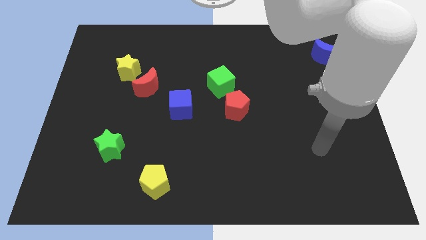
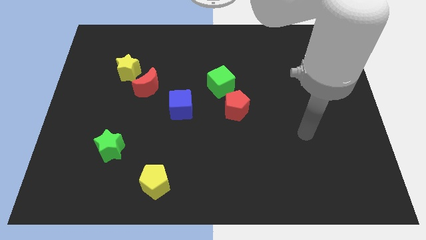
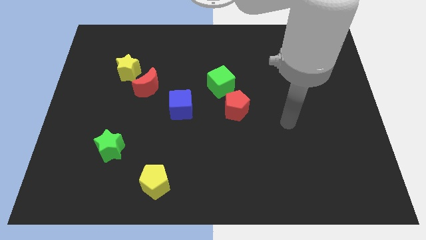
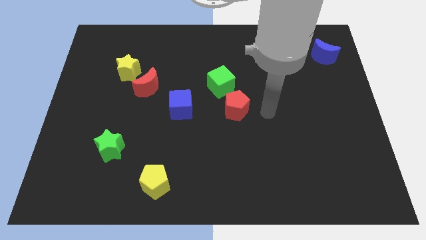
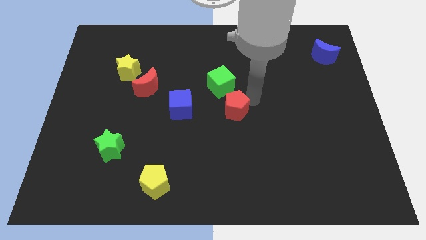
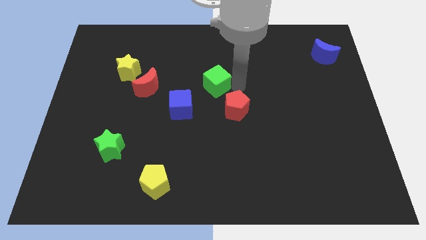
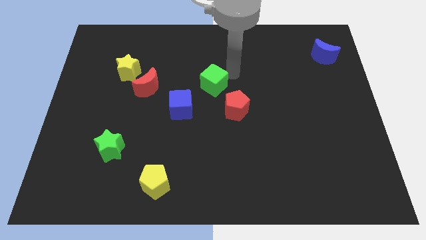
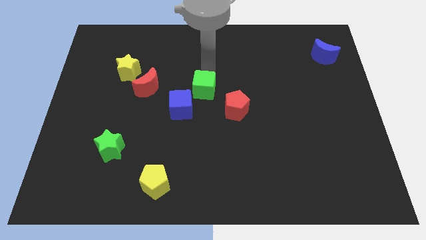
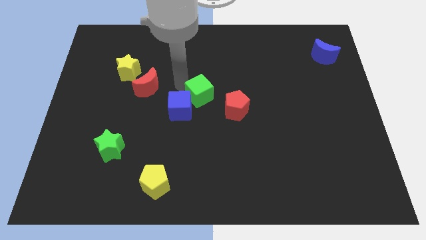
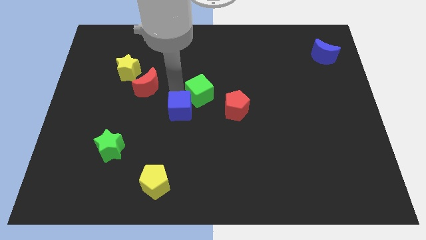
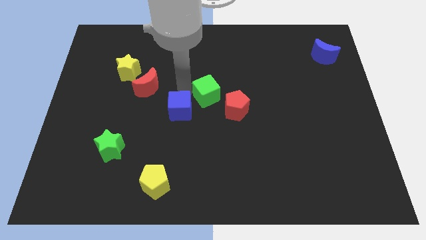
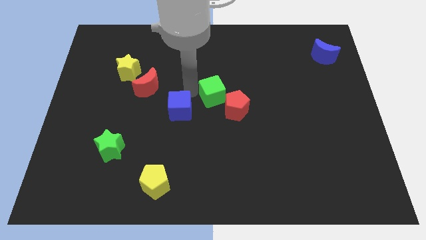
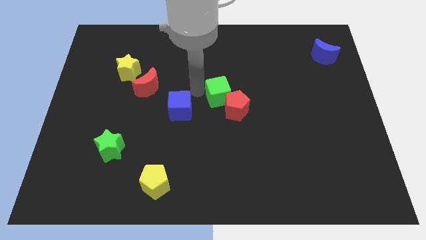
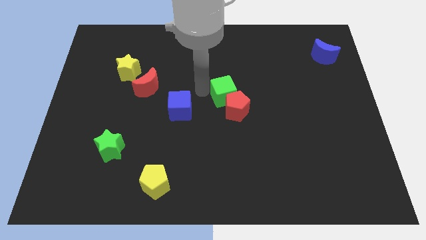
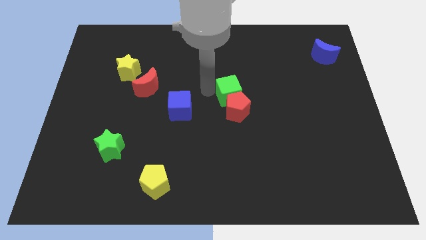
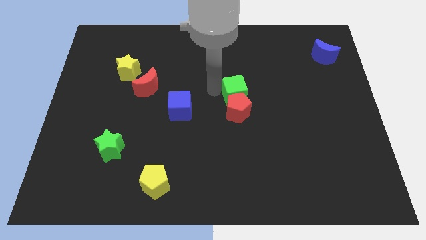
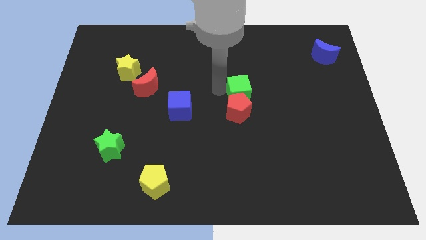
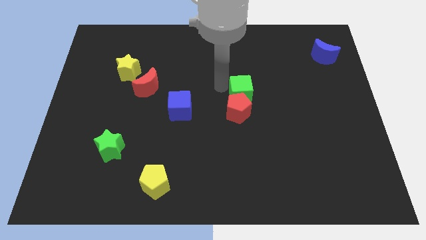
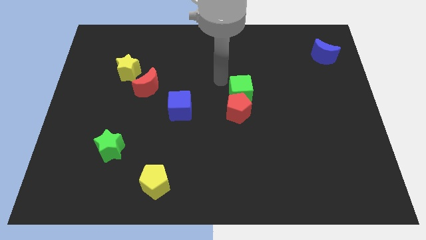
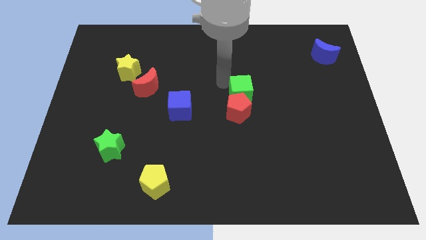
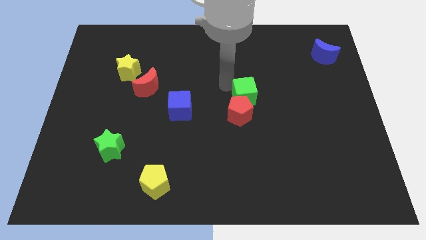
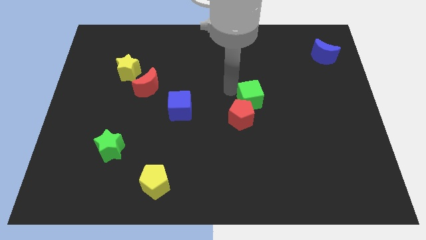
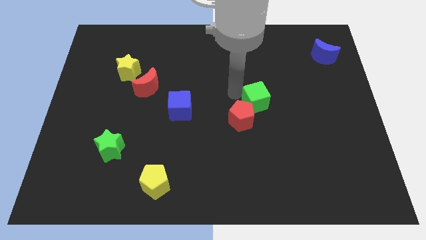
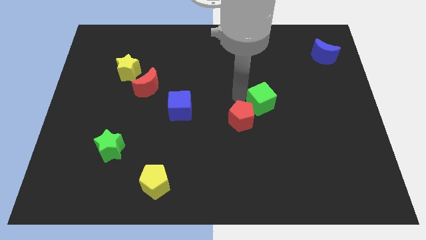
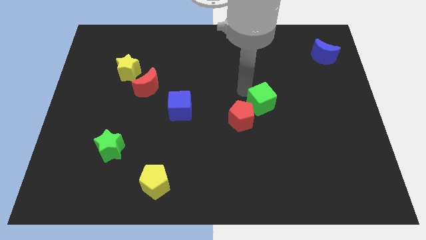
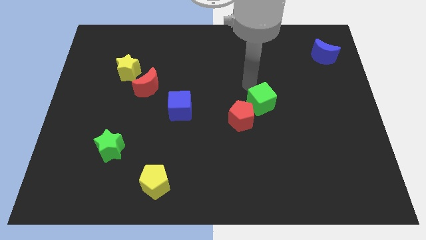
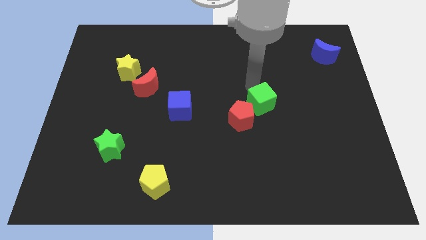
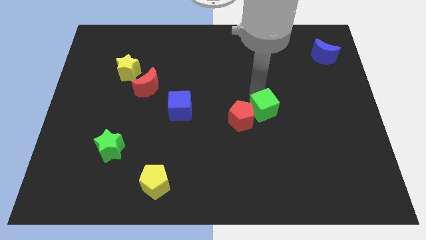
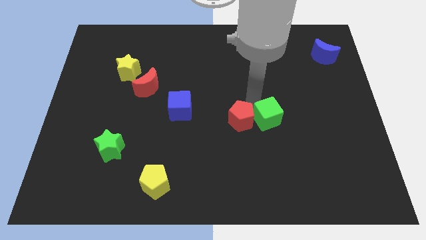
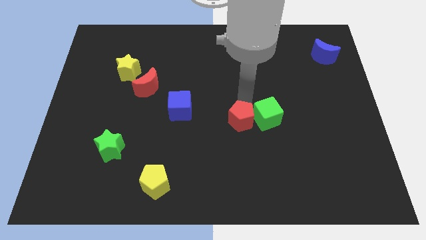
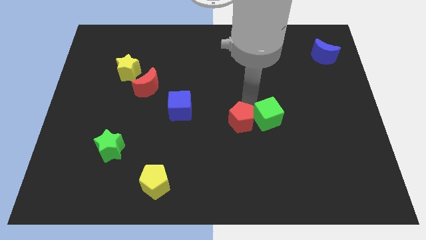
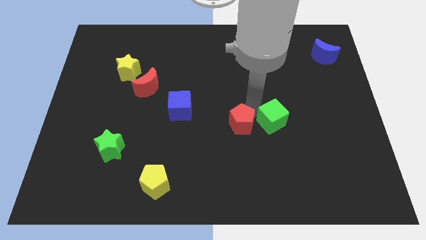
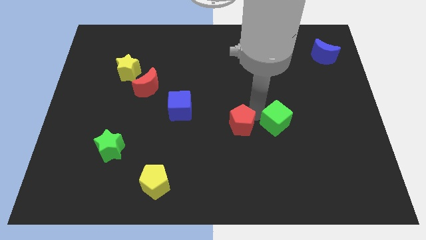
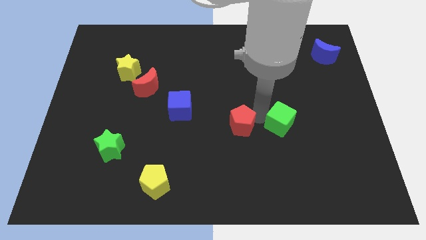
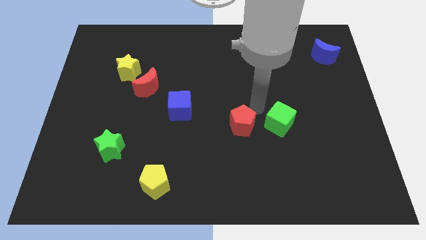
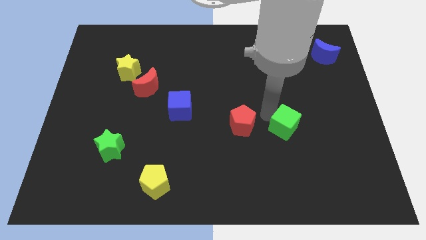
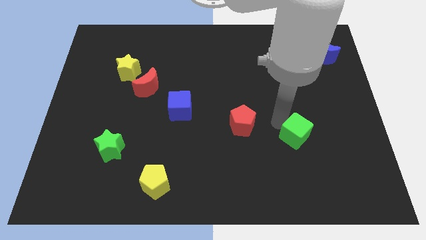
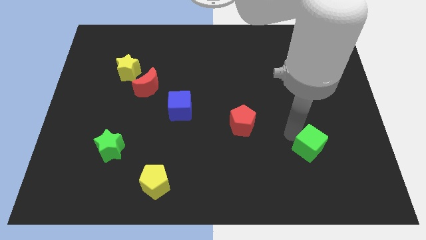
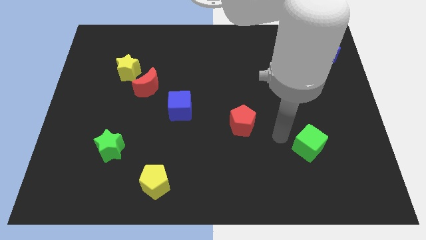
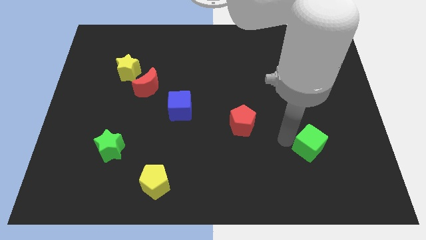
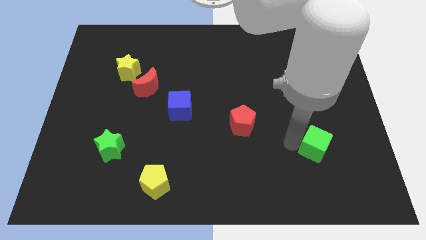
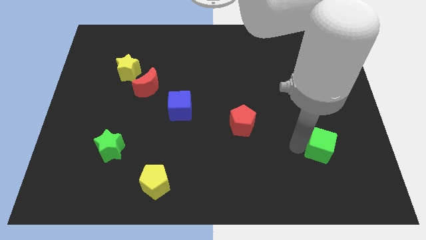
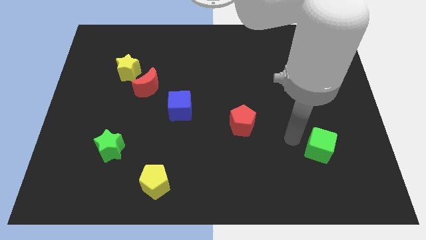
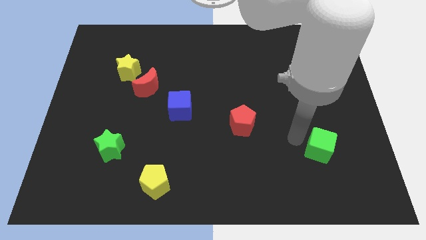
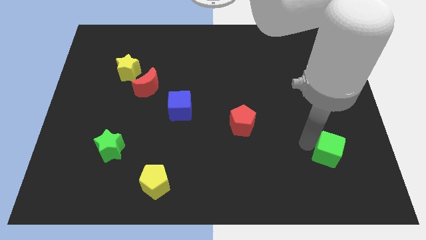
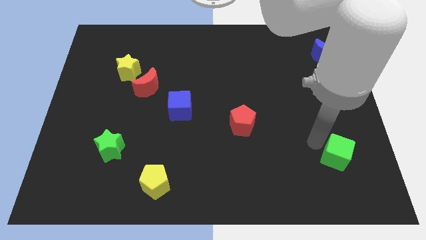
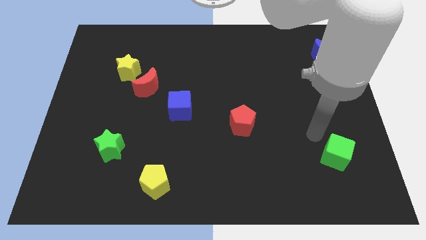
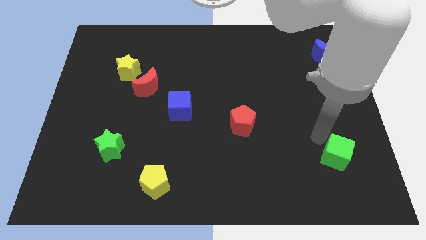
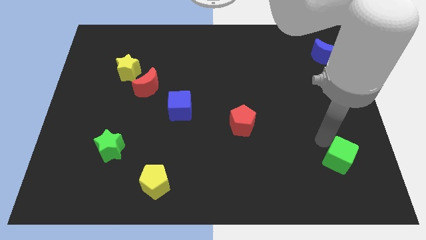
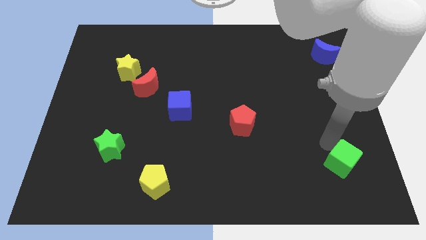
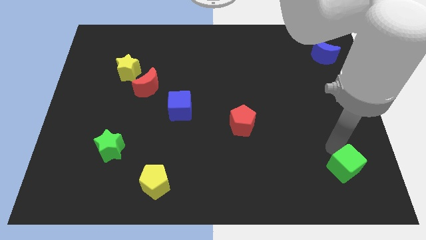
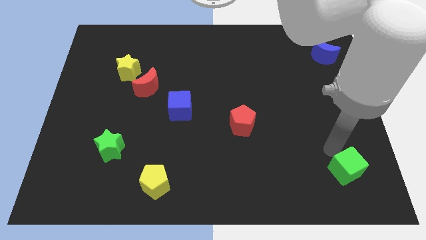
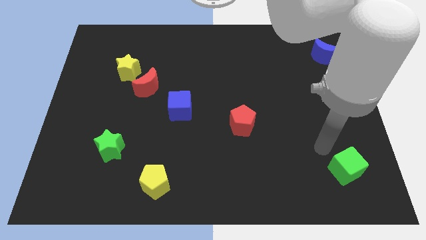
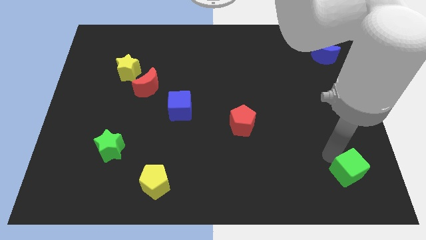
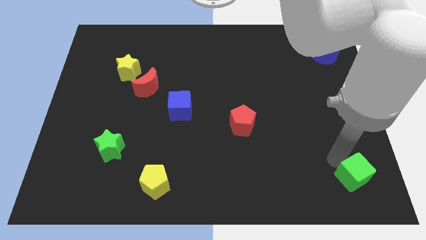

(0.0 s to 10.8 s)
move the green cube to the lower right corner

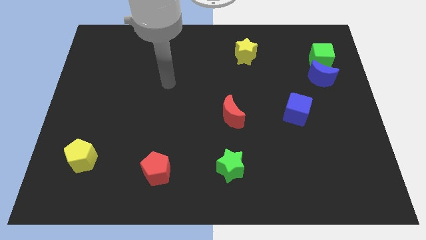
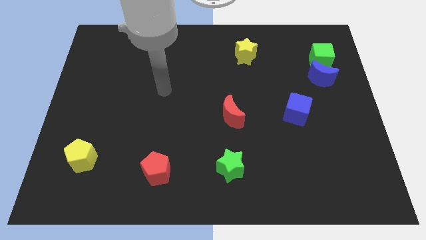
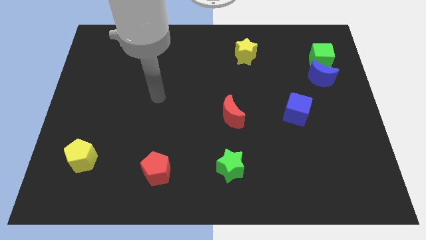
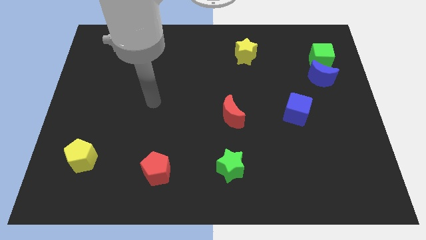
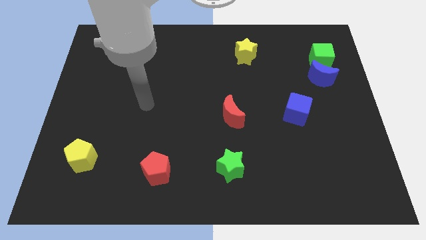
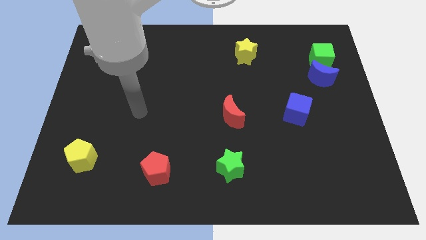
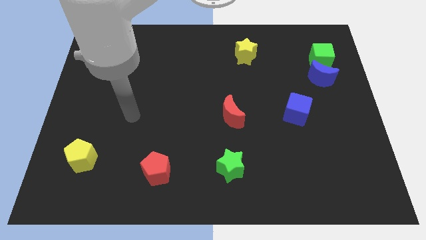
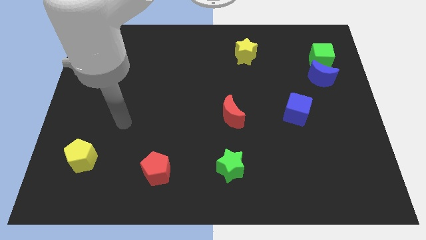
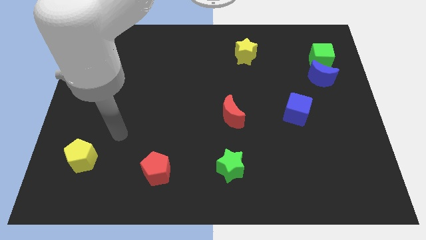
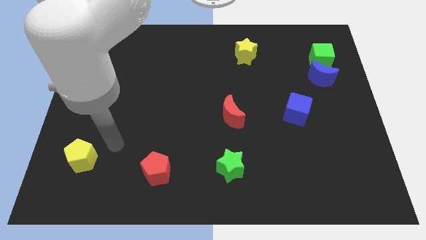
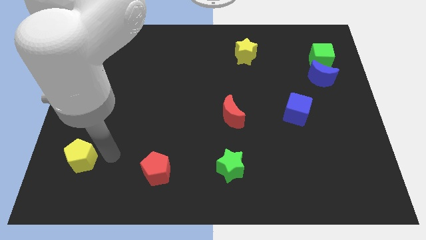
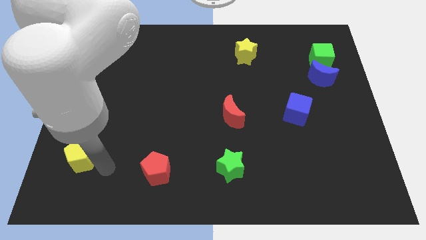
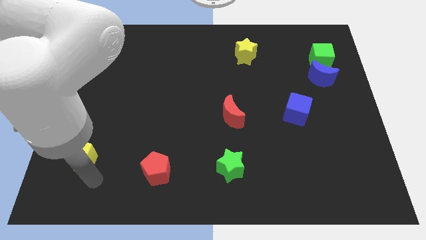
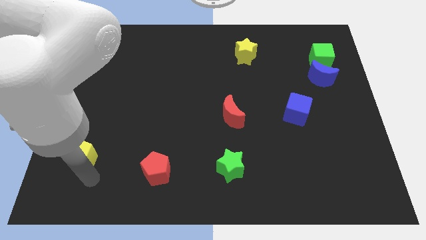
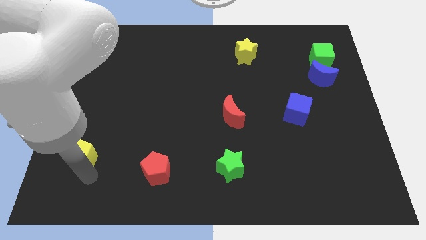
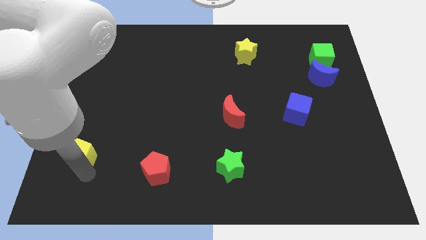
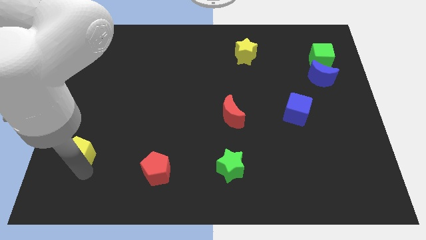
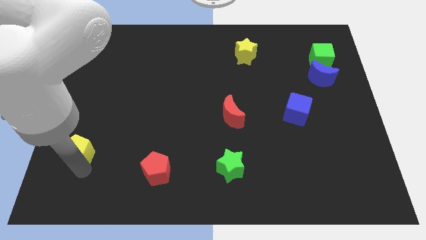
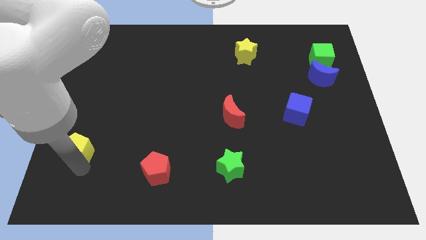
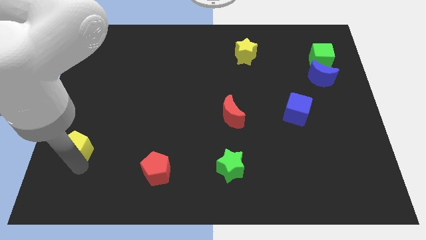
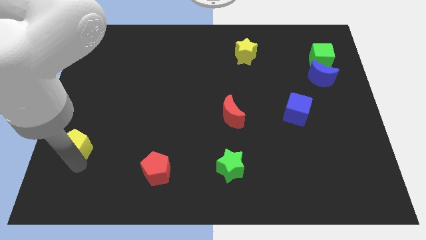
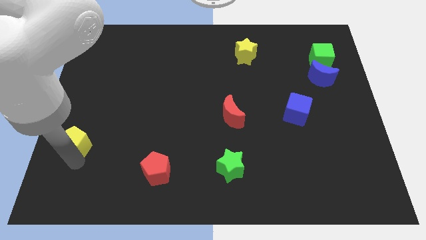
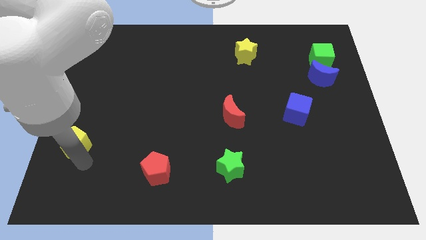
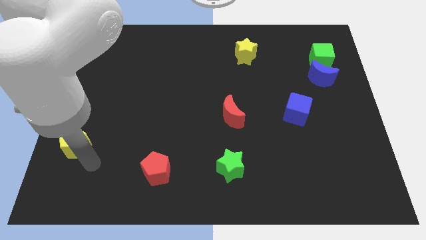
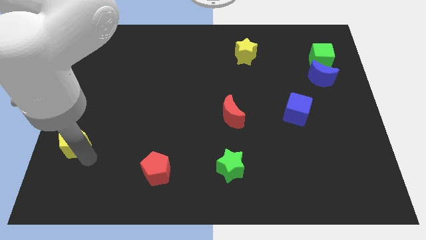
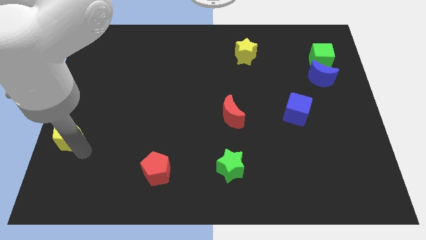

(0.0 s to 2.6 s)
put the yellow pentagon to the left side

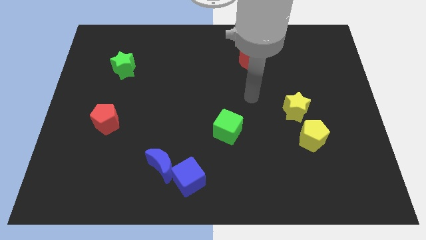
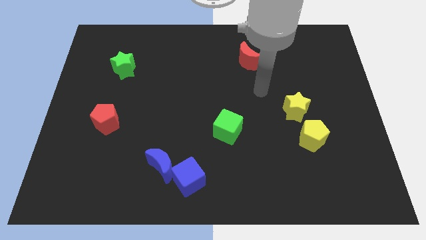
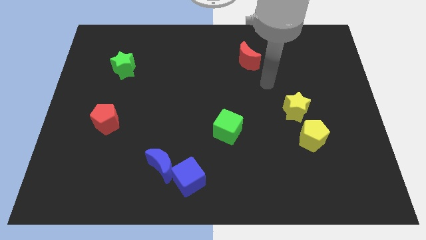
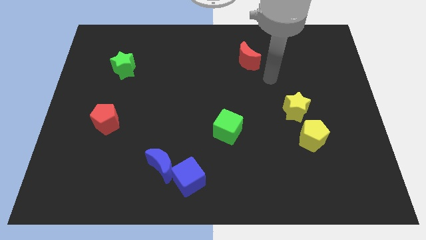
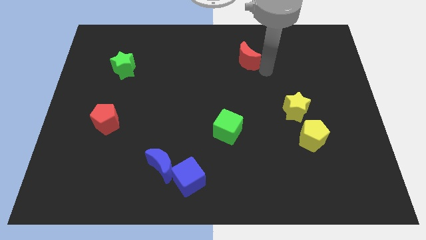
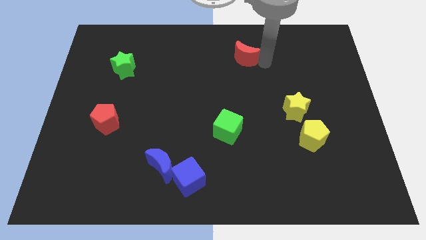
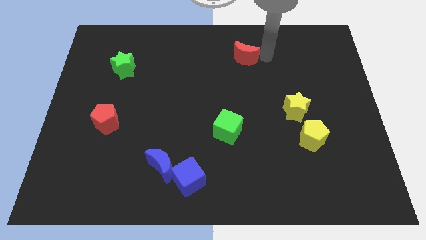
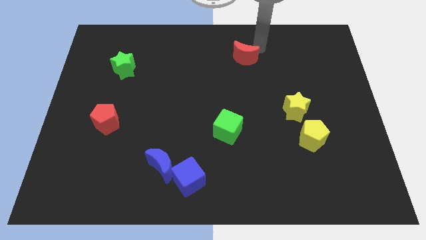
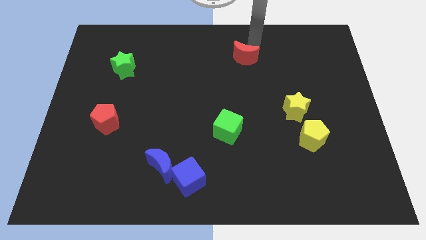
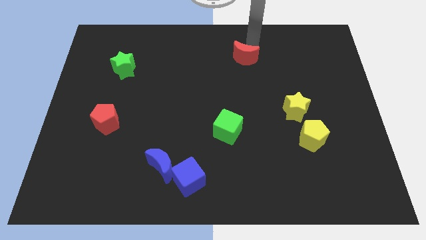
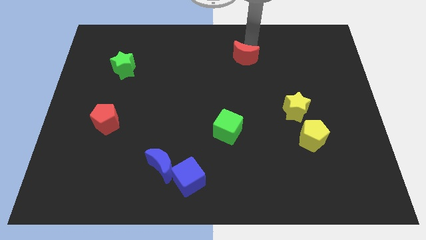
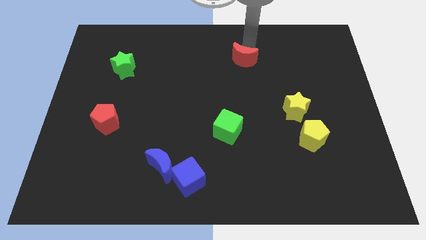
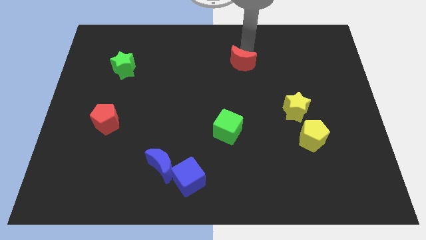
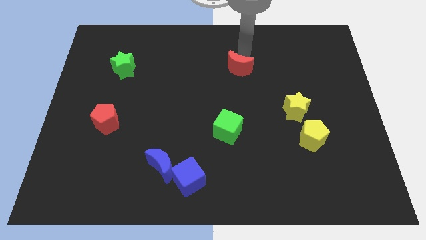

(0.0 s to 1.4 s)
slide the red moon to the center
